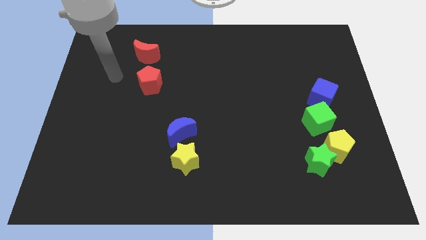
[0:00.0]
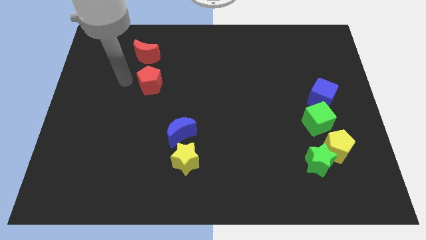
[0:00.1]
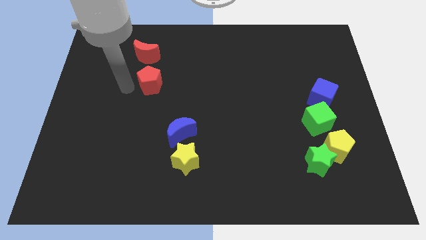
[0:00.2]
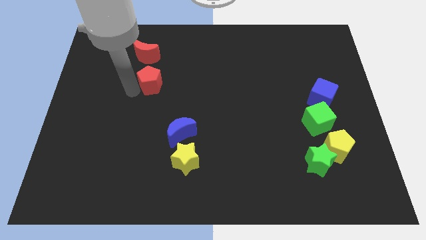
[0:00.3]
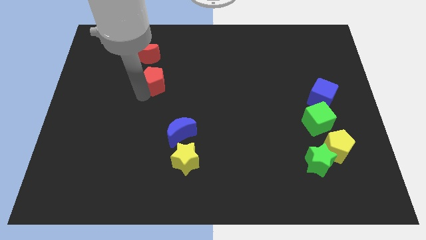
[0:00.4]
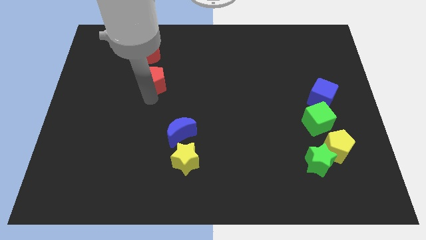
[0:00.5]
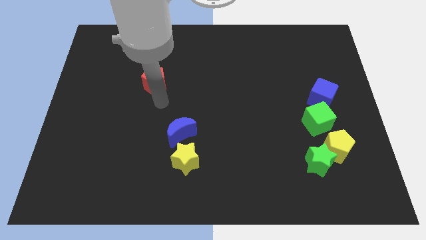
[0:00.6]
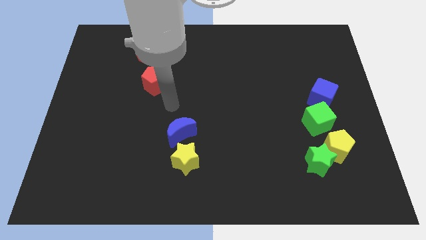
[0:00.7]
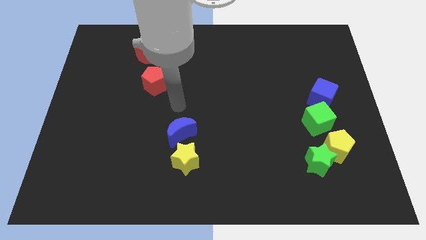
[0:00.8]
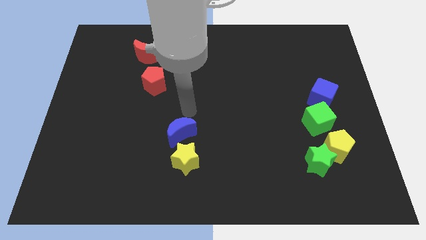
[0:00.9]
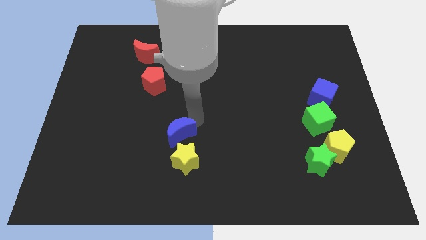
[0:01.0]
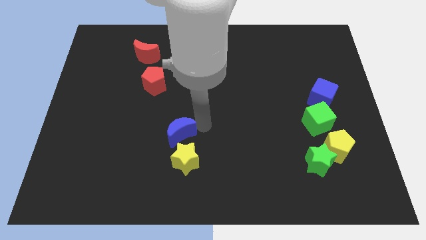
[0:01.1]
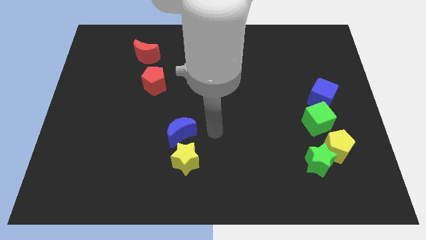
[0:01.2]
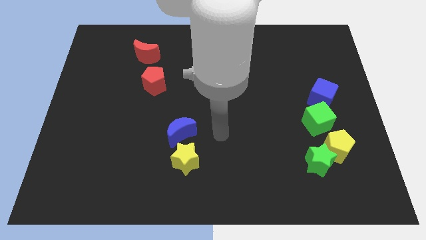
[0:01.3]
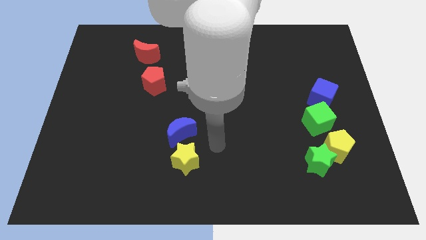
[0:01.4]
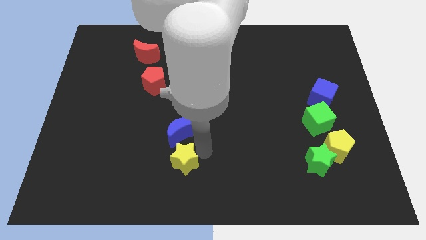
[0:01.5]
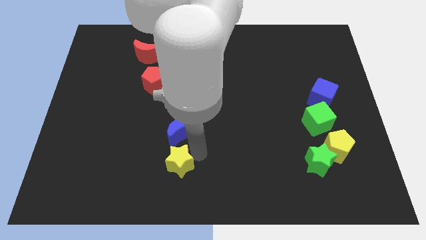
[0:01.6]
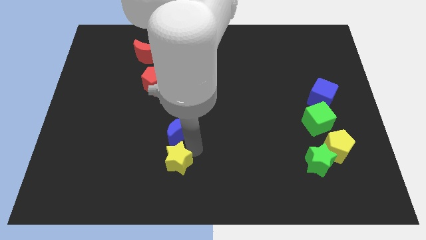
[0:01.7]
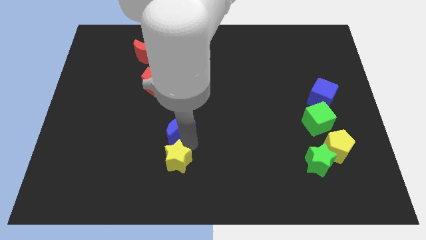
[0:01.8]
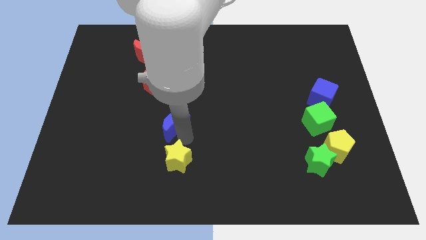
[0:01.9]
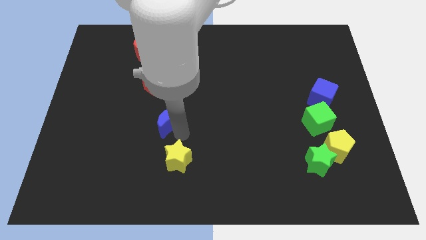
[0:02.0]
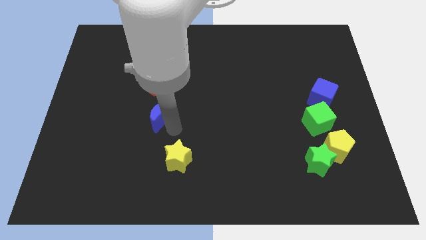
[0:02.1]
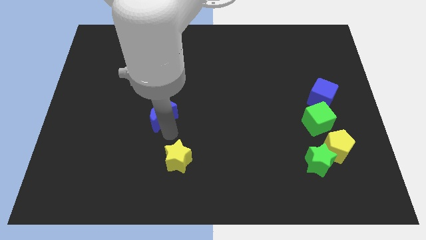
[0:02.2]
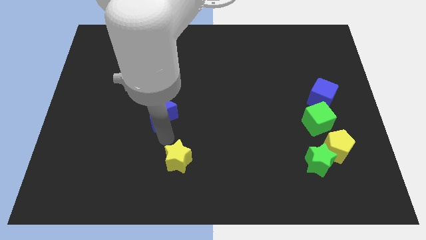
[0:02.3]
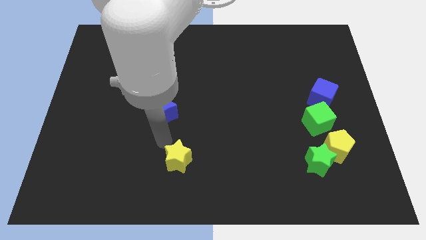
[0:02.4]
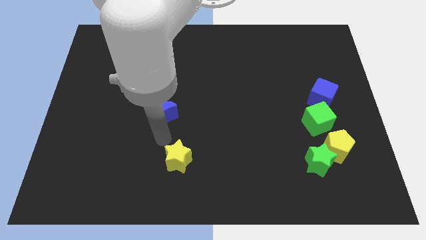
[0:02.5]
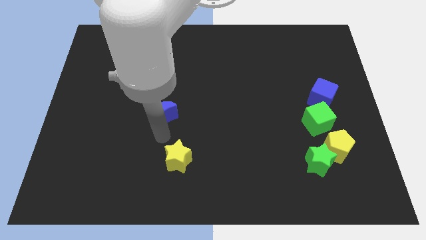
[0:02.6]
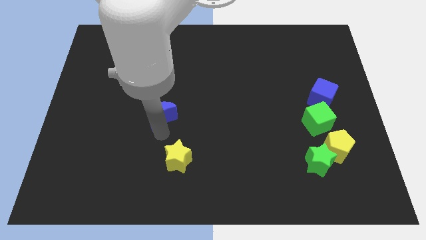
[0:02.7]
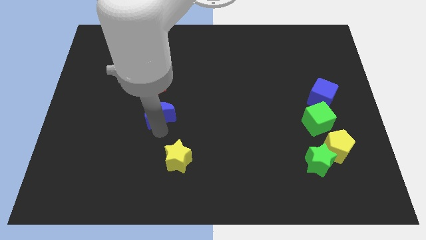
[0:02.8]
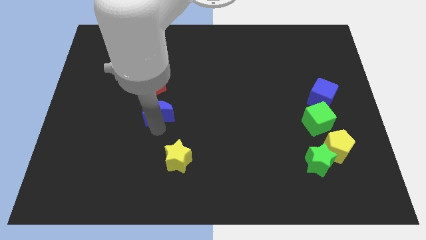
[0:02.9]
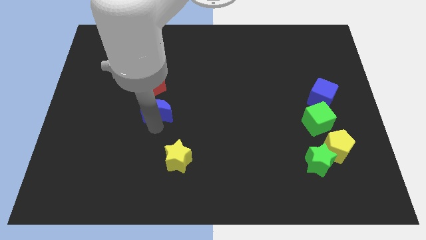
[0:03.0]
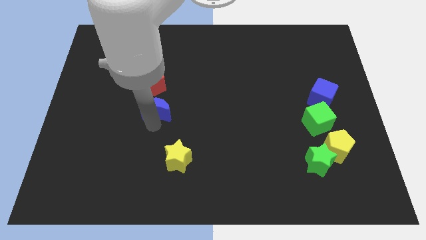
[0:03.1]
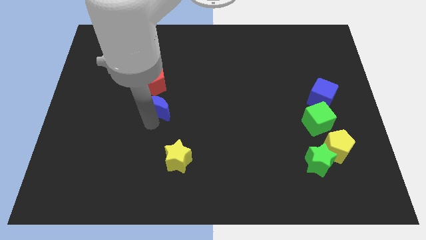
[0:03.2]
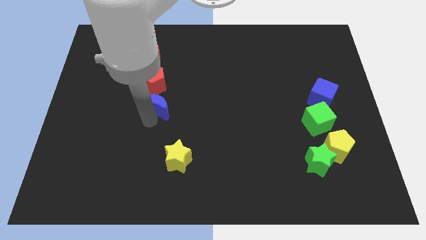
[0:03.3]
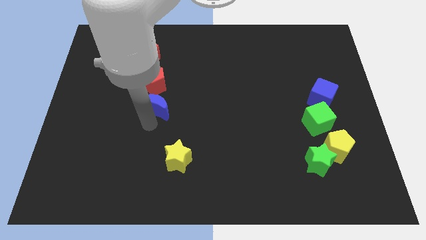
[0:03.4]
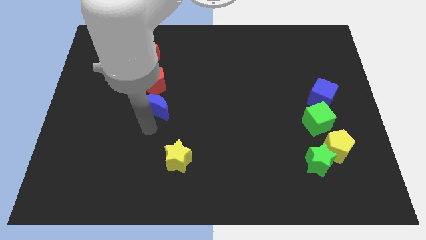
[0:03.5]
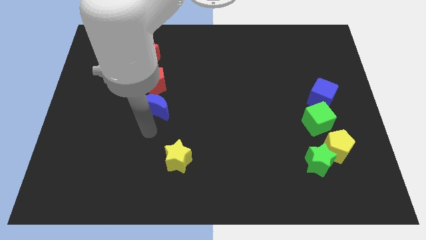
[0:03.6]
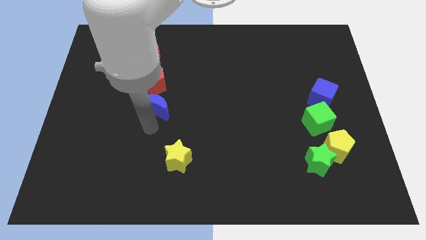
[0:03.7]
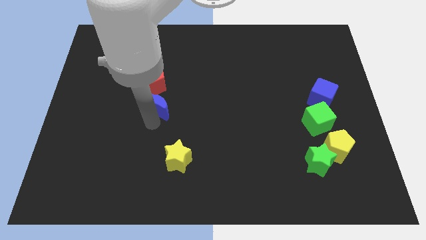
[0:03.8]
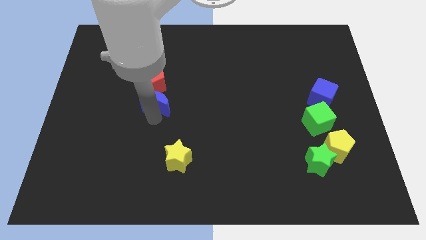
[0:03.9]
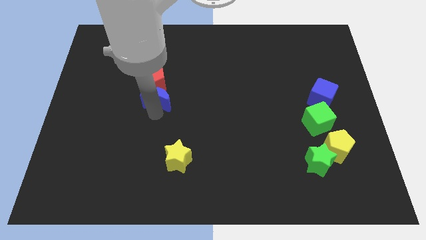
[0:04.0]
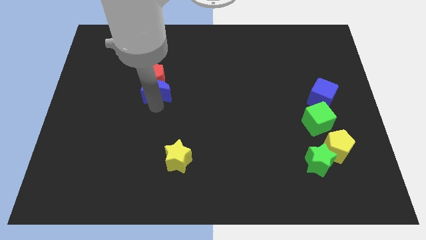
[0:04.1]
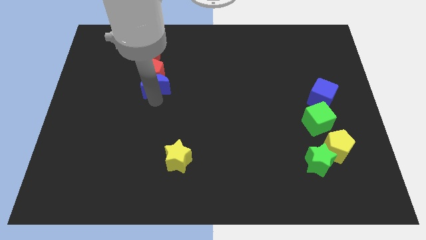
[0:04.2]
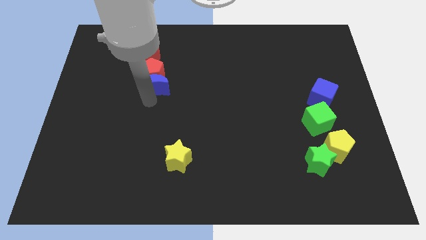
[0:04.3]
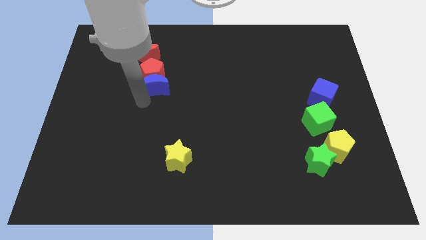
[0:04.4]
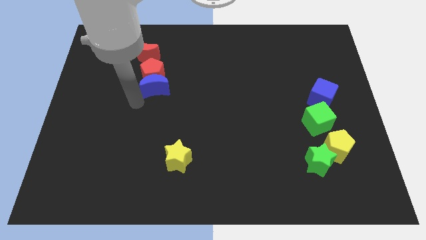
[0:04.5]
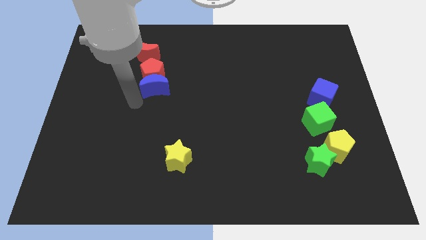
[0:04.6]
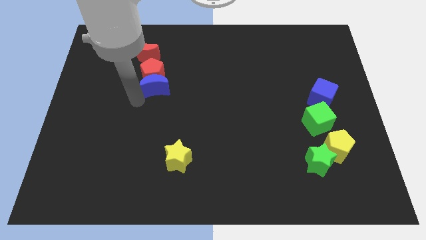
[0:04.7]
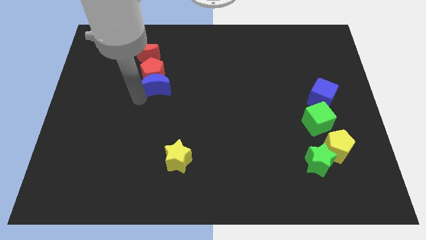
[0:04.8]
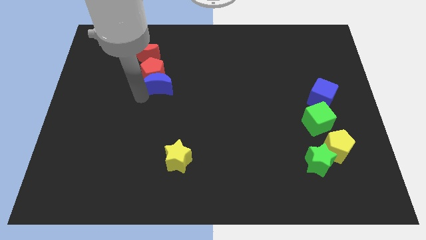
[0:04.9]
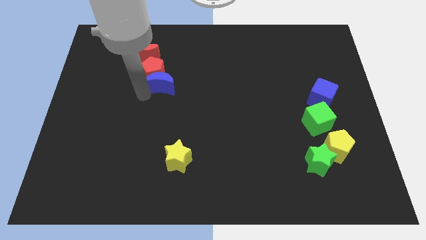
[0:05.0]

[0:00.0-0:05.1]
move the blue moon to the bottom right side of the red moon

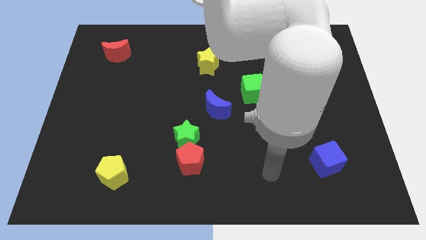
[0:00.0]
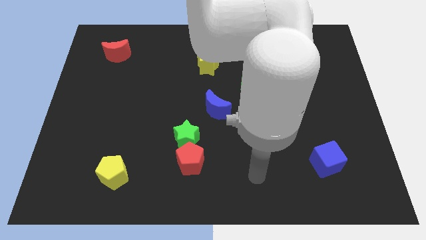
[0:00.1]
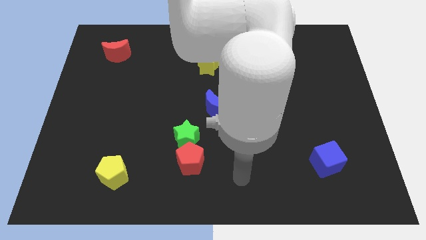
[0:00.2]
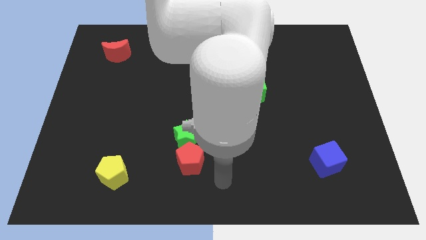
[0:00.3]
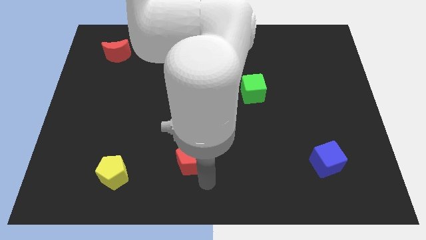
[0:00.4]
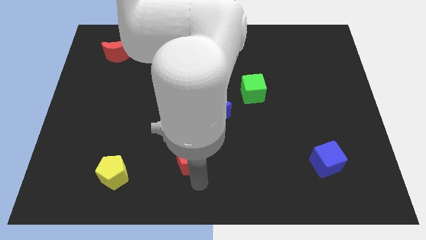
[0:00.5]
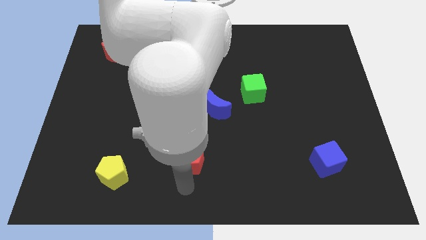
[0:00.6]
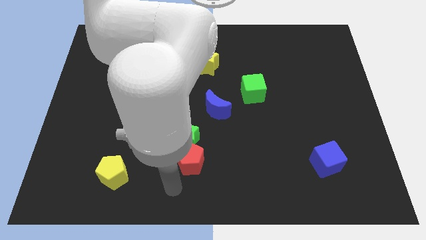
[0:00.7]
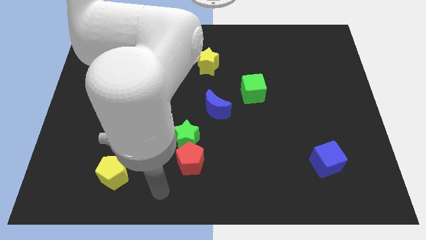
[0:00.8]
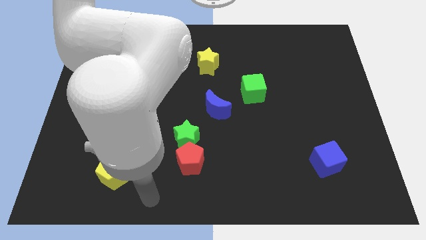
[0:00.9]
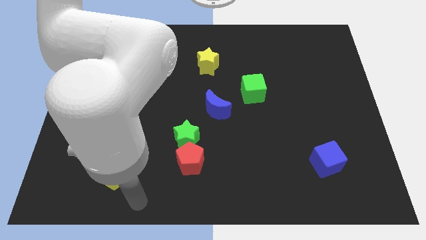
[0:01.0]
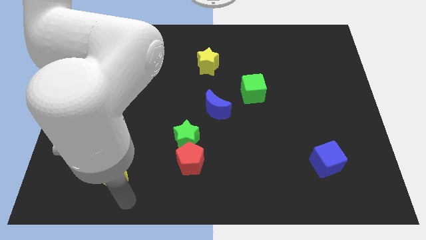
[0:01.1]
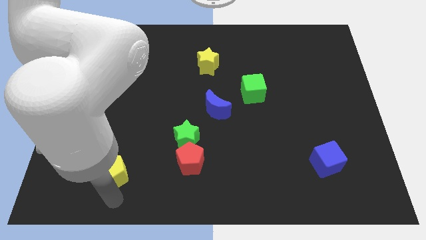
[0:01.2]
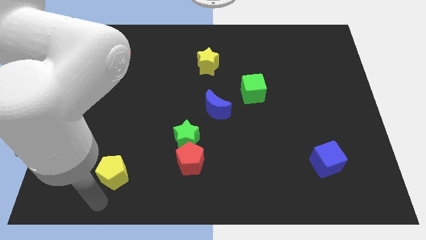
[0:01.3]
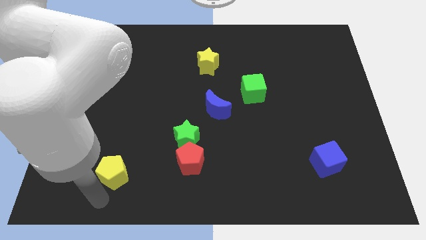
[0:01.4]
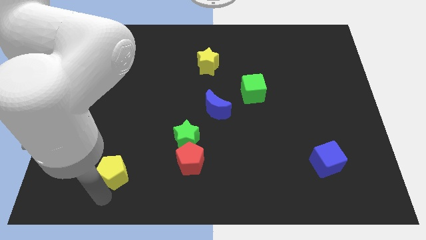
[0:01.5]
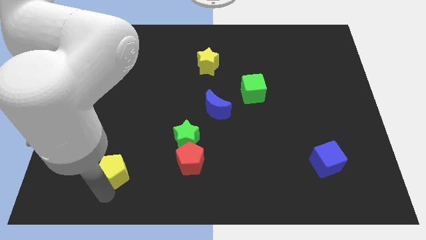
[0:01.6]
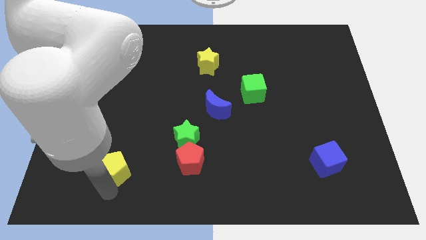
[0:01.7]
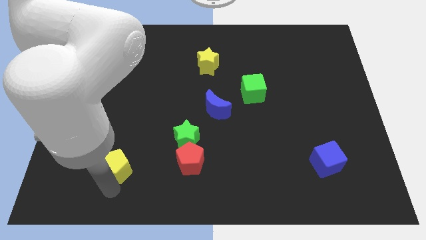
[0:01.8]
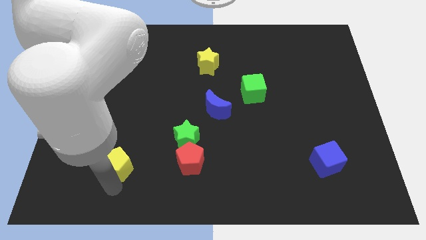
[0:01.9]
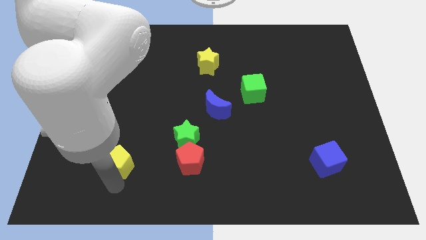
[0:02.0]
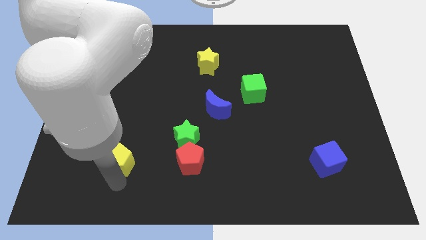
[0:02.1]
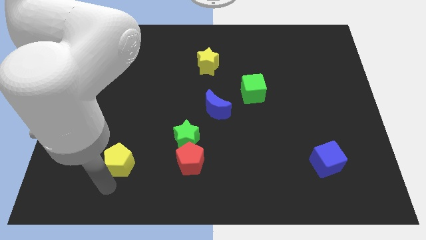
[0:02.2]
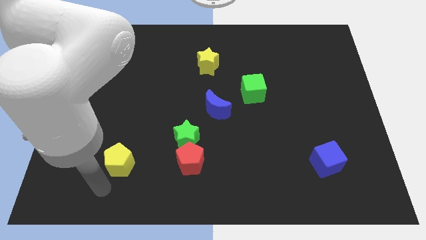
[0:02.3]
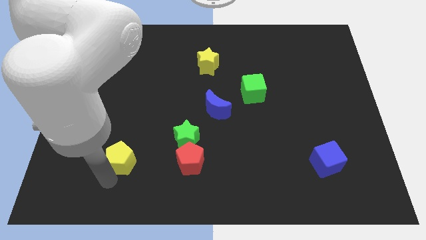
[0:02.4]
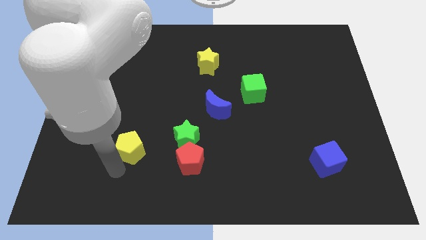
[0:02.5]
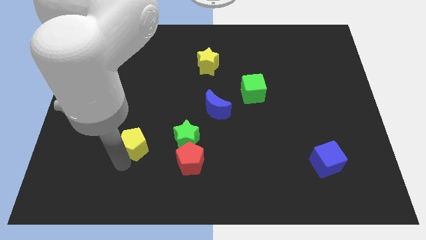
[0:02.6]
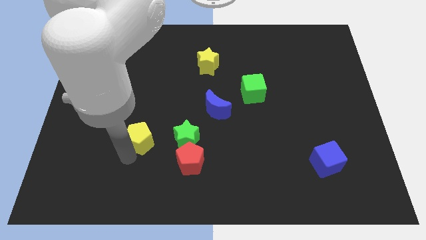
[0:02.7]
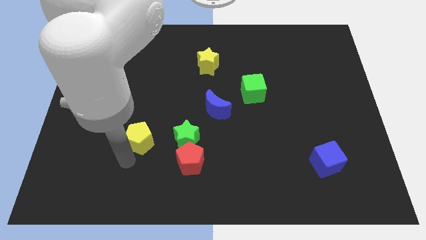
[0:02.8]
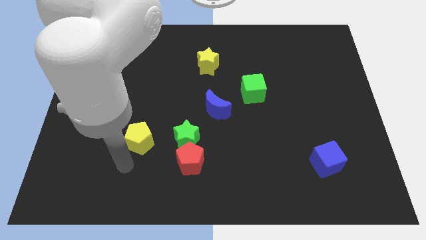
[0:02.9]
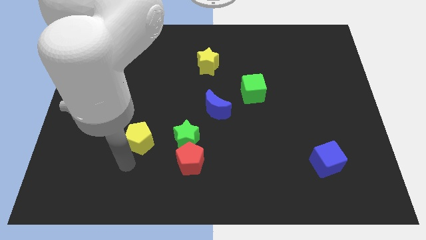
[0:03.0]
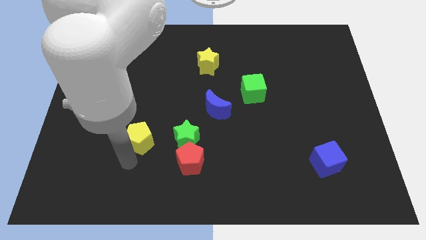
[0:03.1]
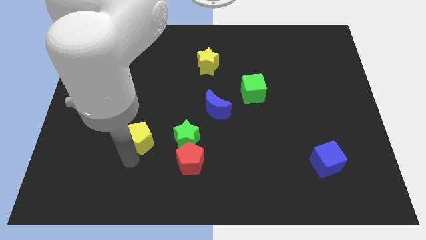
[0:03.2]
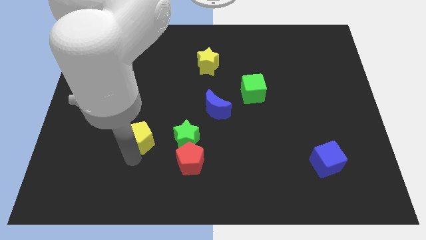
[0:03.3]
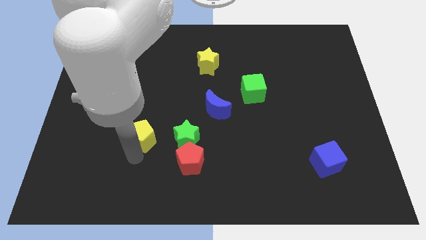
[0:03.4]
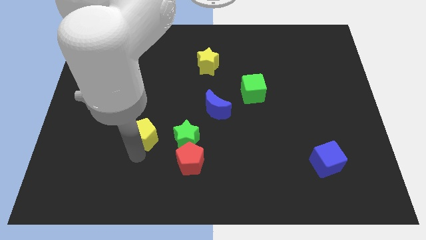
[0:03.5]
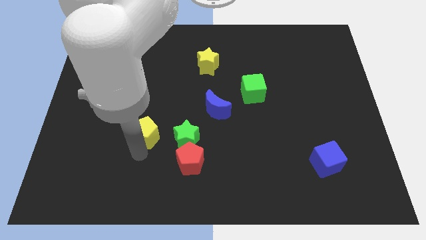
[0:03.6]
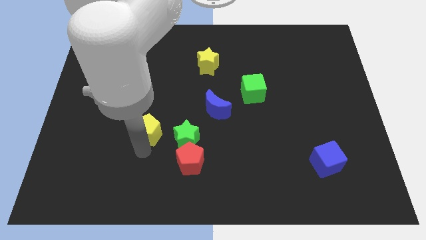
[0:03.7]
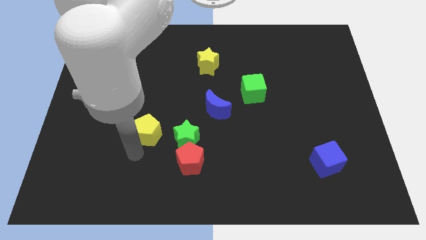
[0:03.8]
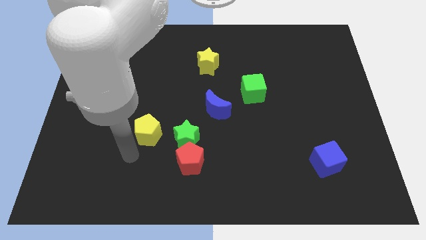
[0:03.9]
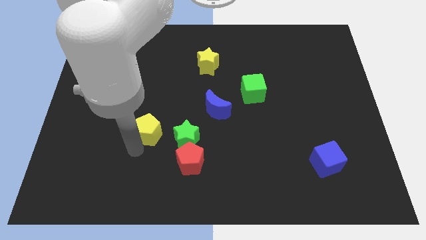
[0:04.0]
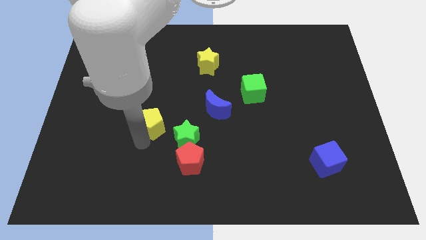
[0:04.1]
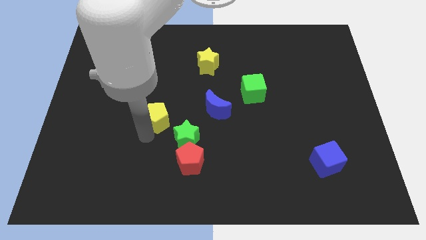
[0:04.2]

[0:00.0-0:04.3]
push the yellow pentagon to the left side of the blue moon
